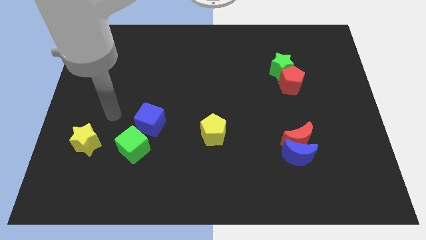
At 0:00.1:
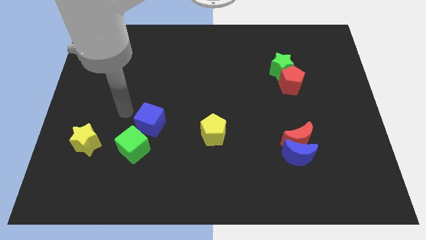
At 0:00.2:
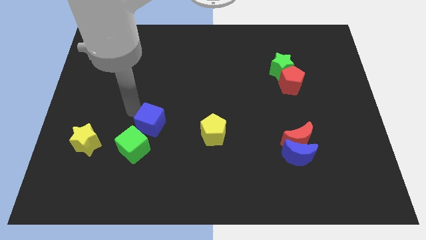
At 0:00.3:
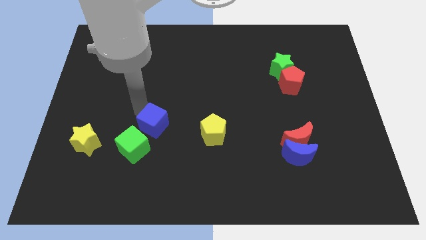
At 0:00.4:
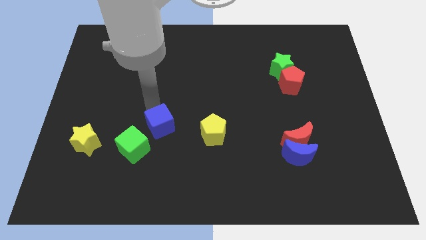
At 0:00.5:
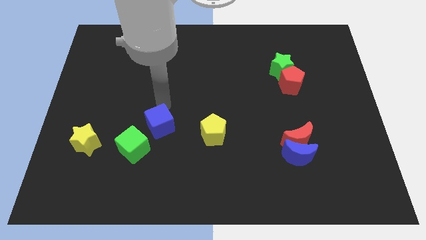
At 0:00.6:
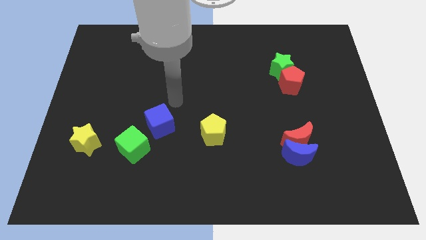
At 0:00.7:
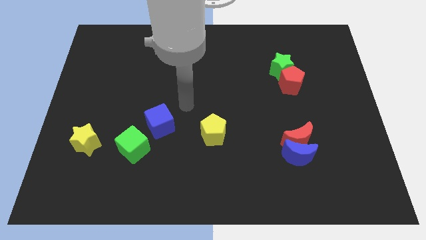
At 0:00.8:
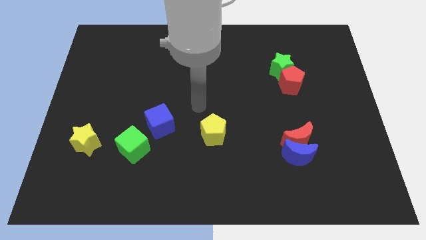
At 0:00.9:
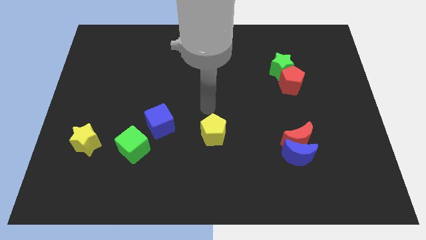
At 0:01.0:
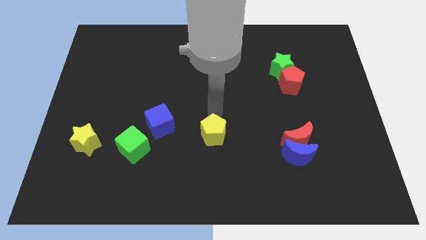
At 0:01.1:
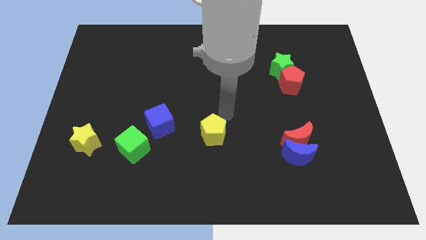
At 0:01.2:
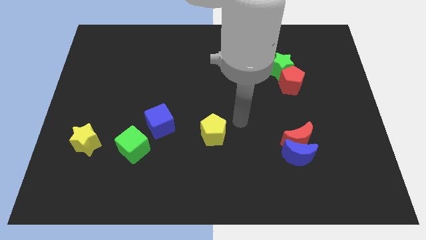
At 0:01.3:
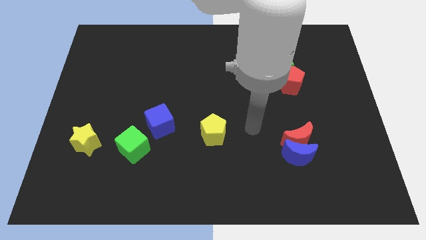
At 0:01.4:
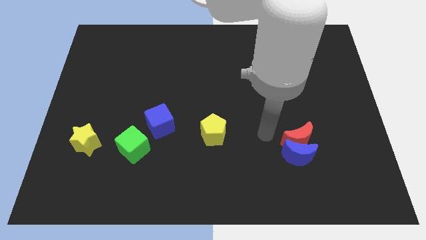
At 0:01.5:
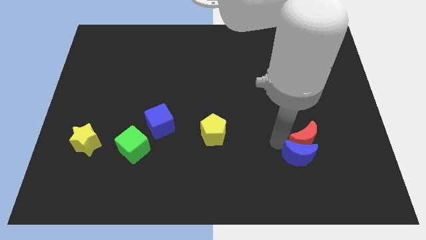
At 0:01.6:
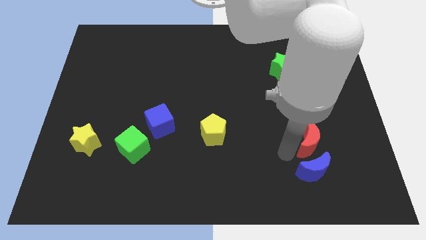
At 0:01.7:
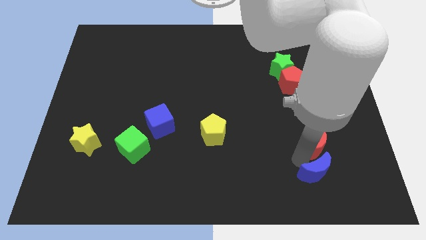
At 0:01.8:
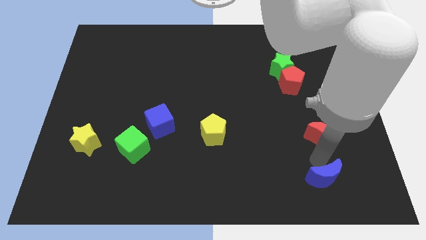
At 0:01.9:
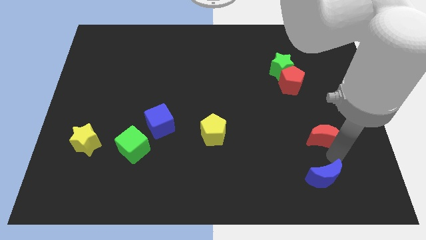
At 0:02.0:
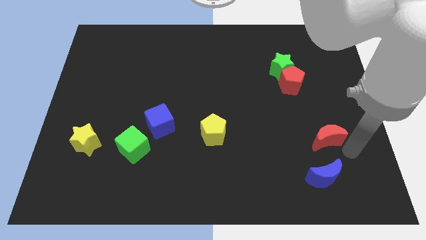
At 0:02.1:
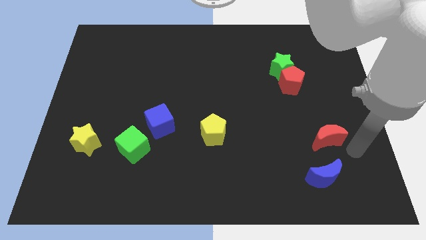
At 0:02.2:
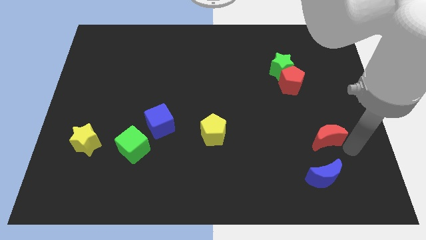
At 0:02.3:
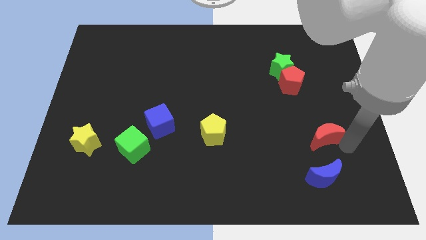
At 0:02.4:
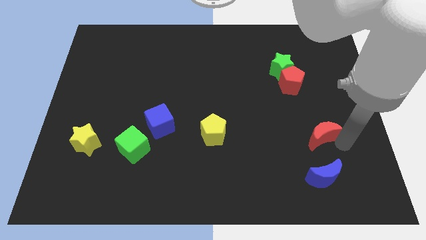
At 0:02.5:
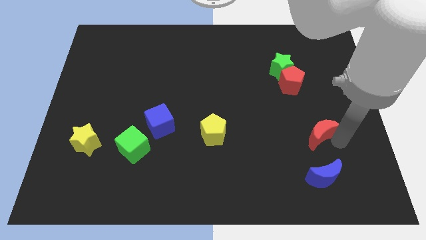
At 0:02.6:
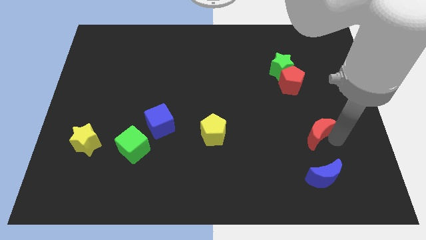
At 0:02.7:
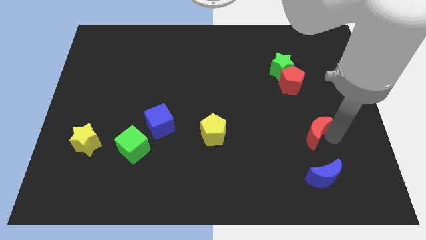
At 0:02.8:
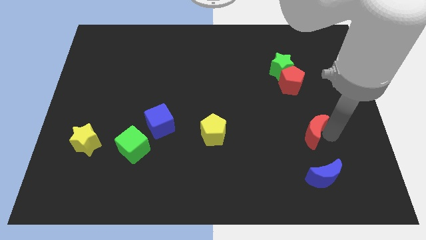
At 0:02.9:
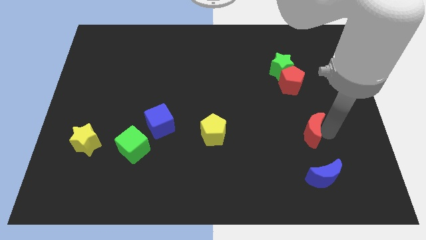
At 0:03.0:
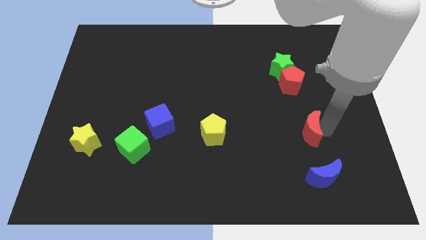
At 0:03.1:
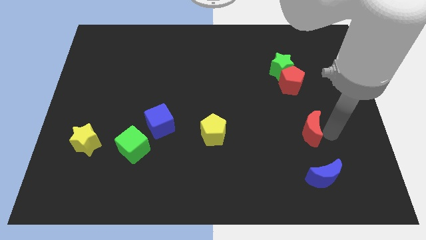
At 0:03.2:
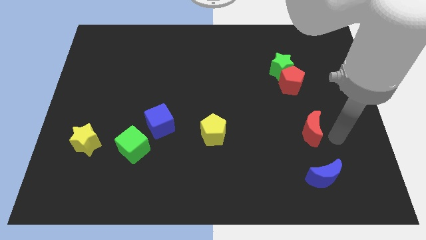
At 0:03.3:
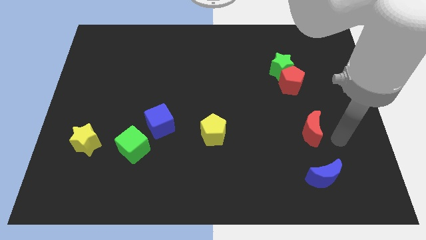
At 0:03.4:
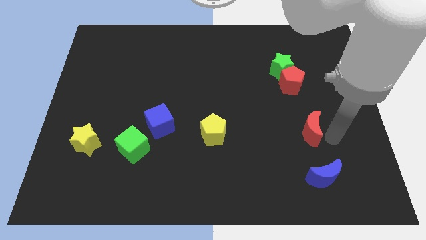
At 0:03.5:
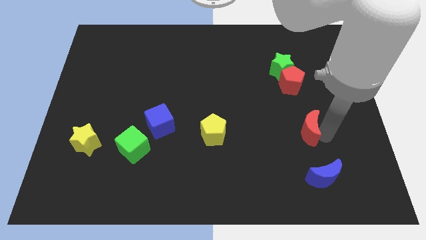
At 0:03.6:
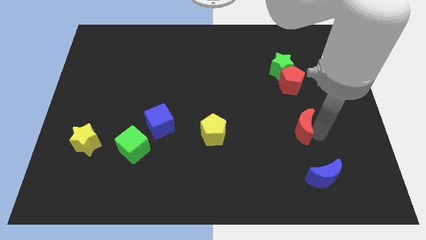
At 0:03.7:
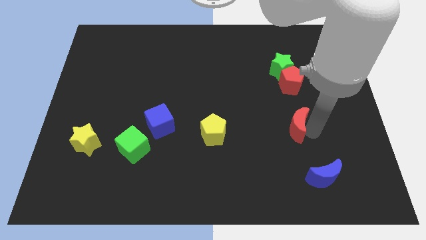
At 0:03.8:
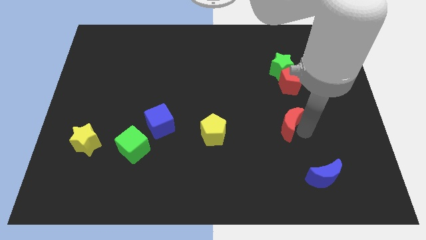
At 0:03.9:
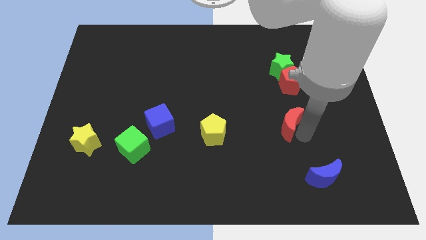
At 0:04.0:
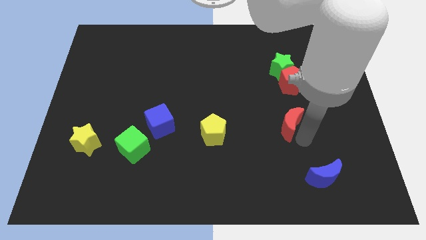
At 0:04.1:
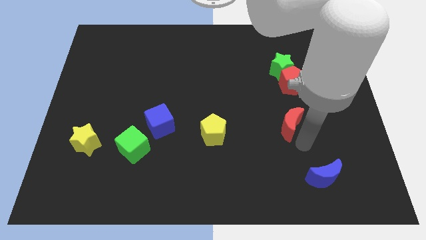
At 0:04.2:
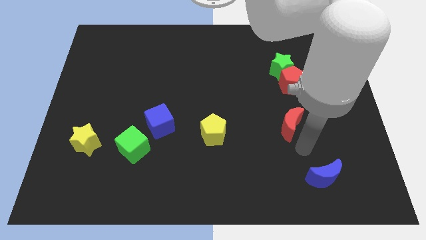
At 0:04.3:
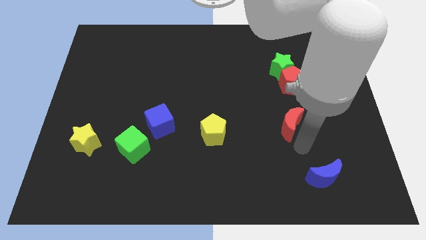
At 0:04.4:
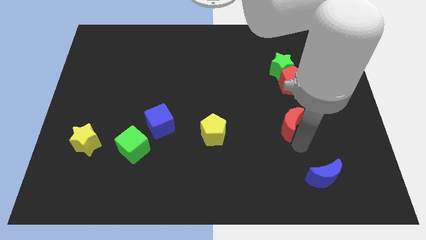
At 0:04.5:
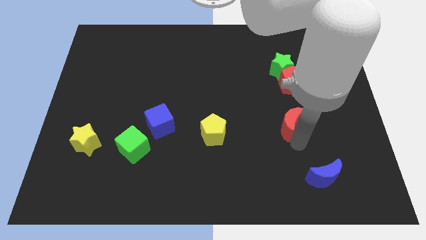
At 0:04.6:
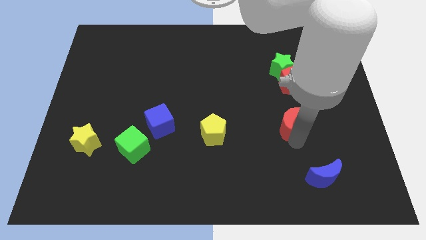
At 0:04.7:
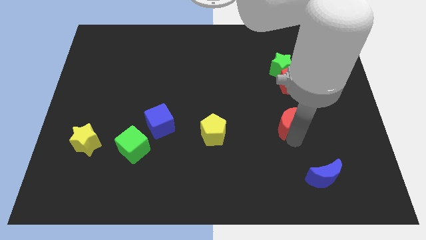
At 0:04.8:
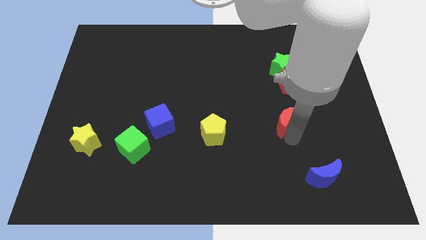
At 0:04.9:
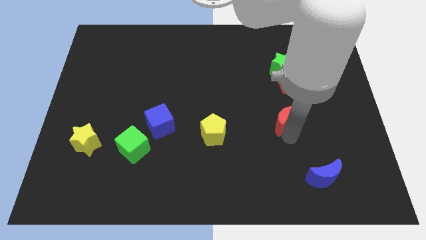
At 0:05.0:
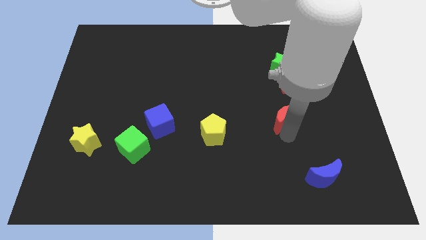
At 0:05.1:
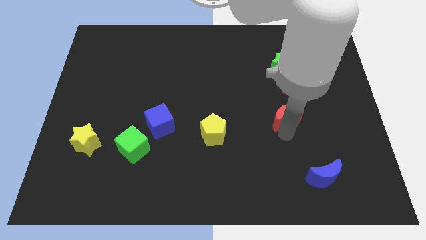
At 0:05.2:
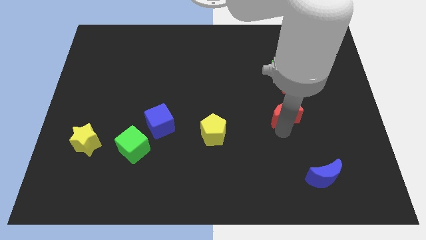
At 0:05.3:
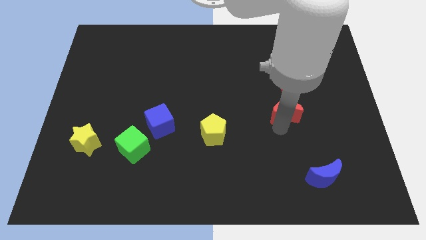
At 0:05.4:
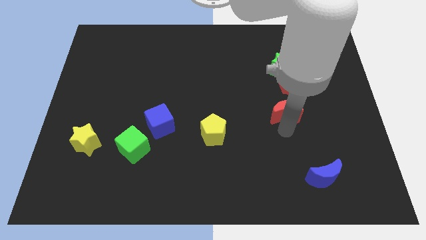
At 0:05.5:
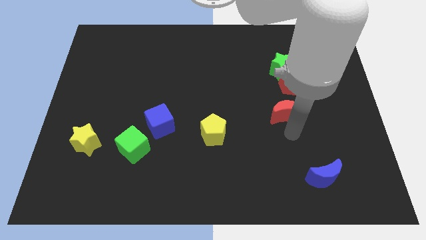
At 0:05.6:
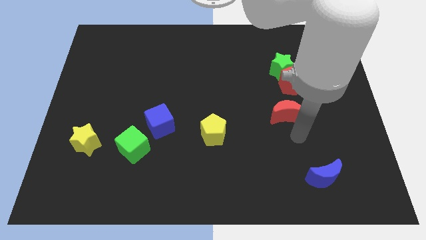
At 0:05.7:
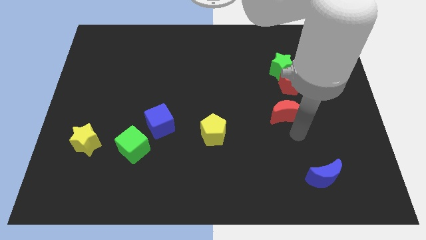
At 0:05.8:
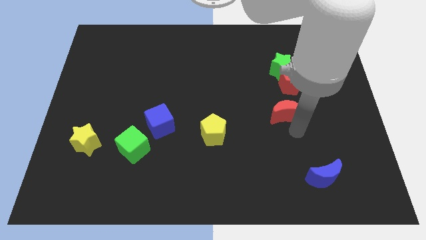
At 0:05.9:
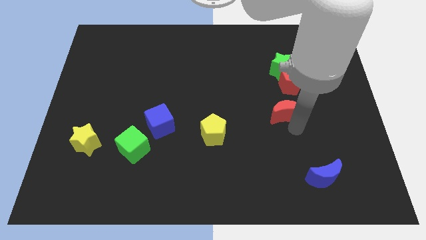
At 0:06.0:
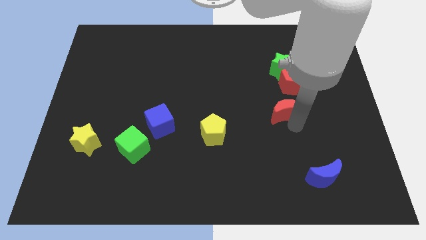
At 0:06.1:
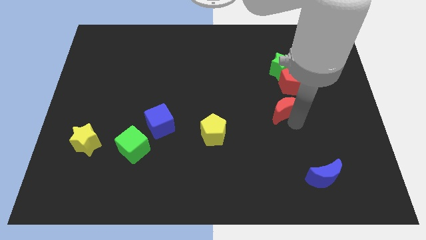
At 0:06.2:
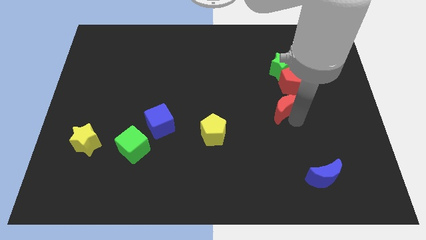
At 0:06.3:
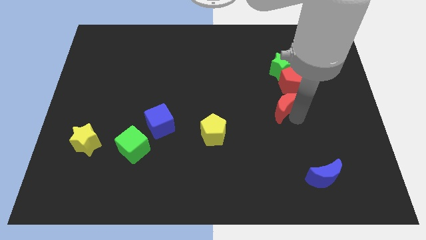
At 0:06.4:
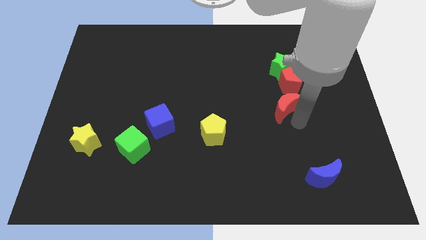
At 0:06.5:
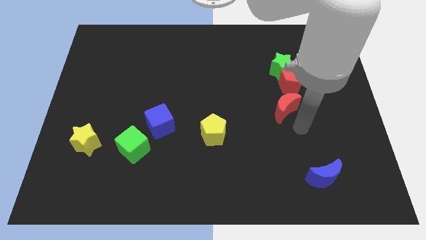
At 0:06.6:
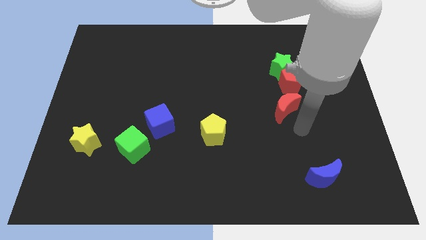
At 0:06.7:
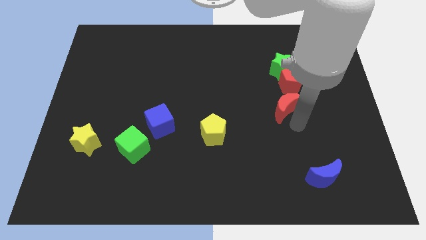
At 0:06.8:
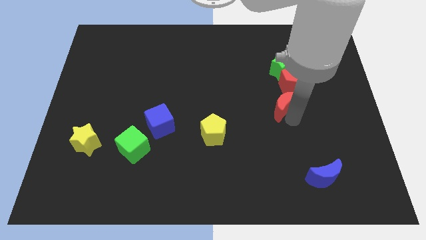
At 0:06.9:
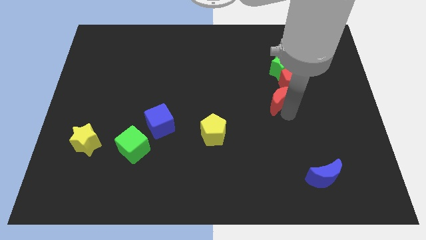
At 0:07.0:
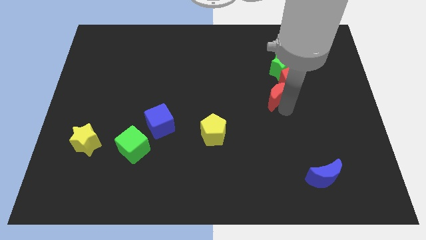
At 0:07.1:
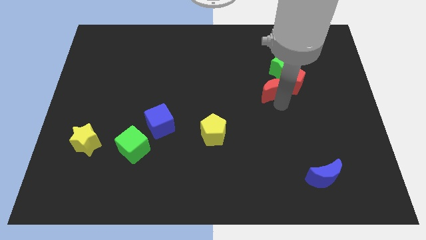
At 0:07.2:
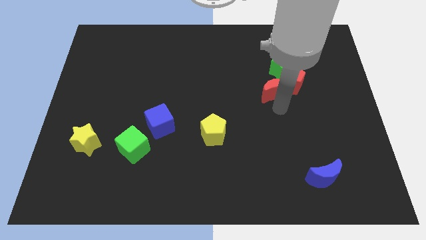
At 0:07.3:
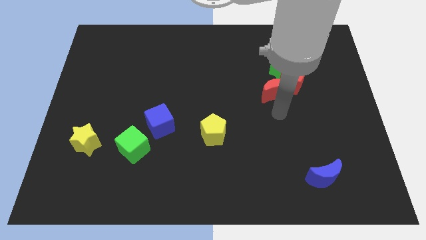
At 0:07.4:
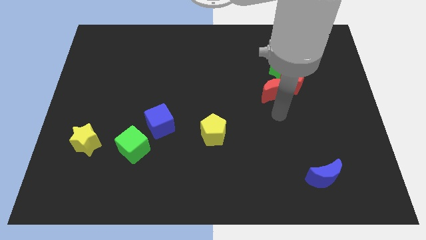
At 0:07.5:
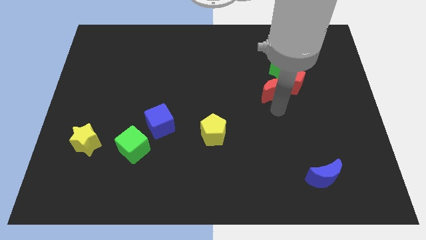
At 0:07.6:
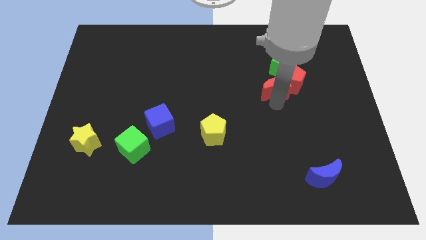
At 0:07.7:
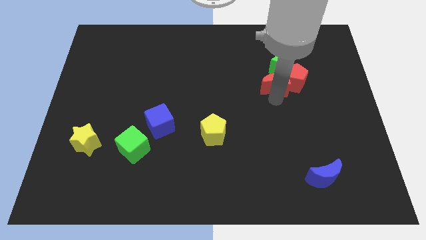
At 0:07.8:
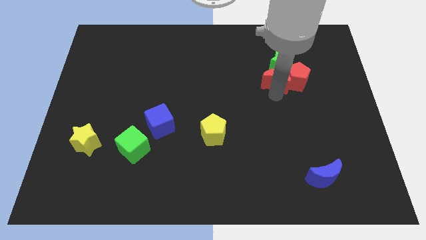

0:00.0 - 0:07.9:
push the red moon to the green star
